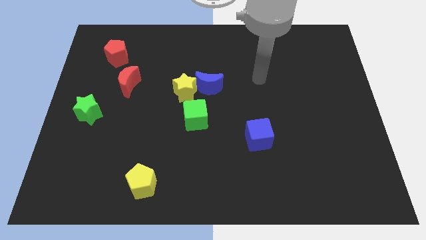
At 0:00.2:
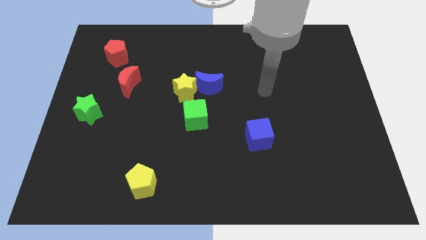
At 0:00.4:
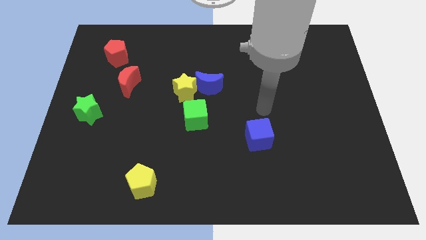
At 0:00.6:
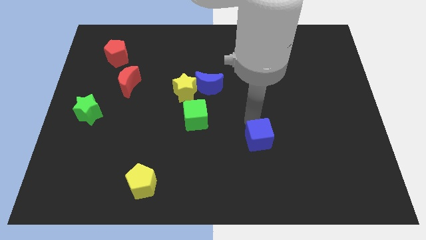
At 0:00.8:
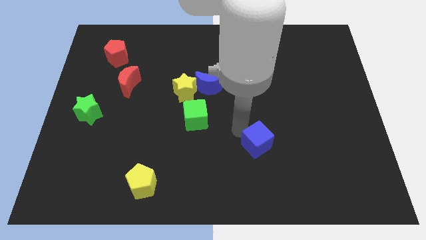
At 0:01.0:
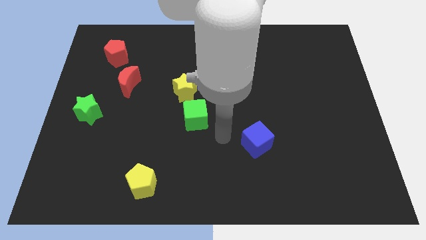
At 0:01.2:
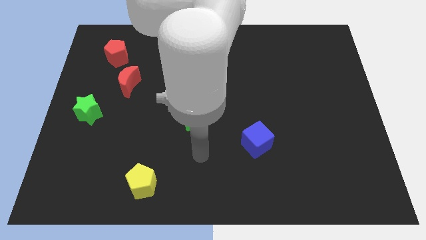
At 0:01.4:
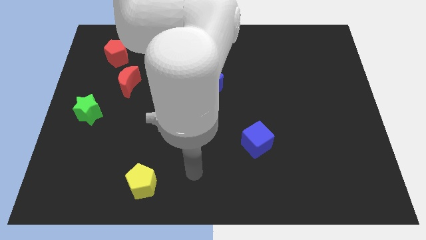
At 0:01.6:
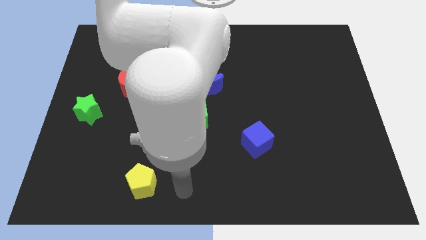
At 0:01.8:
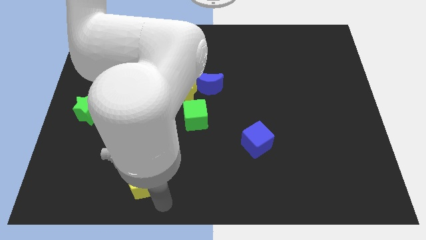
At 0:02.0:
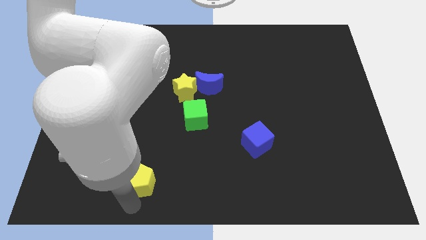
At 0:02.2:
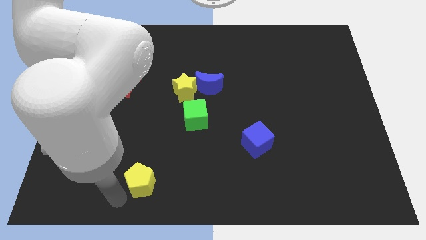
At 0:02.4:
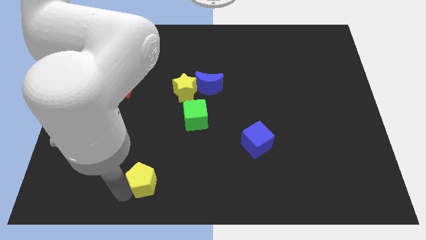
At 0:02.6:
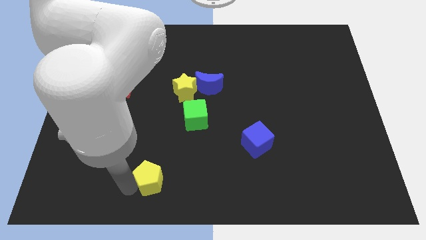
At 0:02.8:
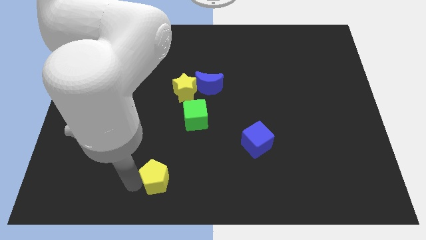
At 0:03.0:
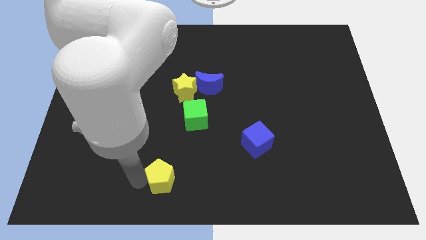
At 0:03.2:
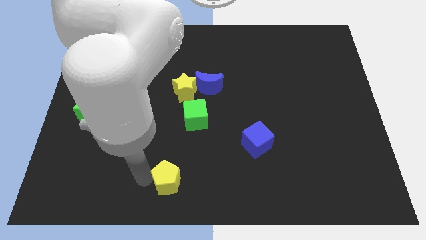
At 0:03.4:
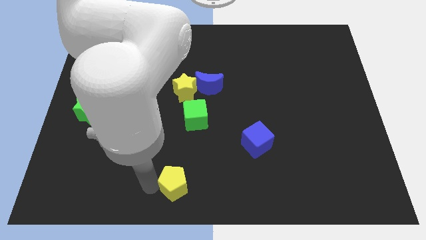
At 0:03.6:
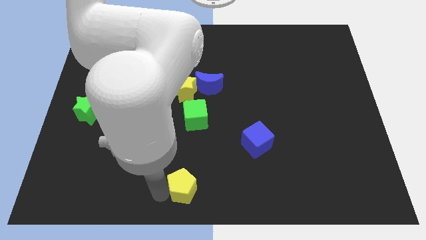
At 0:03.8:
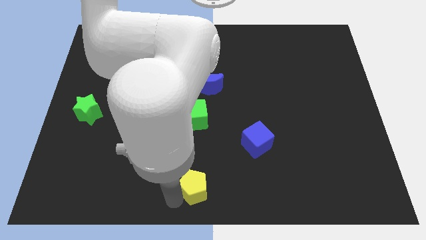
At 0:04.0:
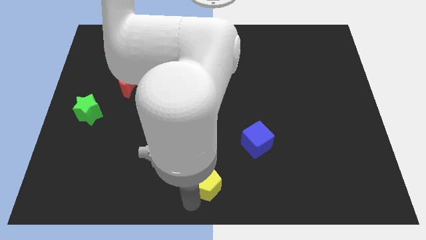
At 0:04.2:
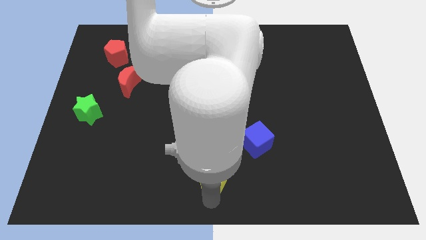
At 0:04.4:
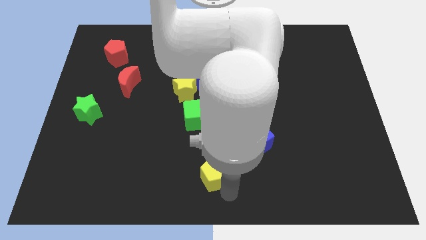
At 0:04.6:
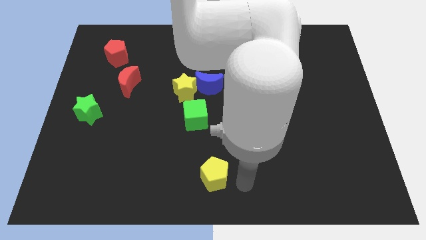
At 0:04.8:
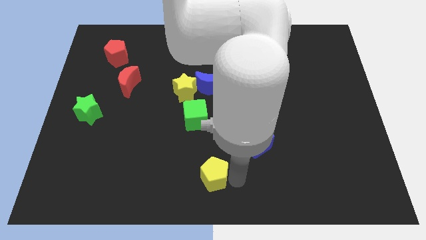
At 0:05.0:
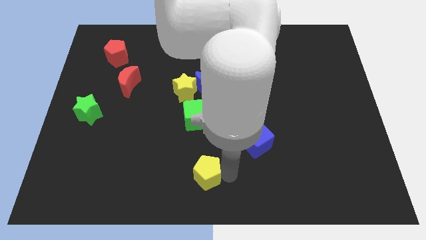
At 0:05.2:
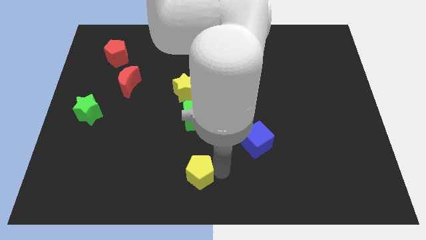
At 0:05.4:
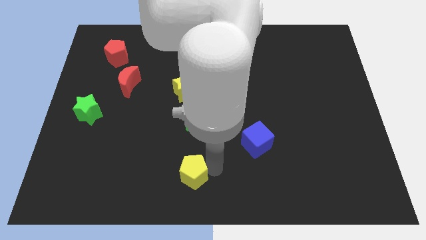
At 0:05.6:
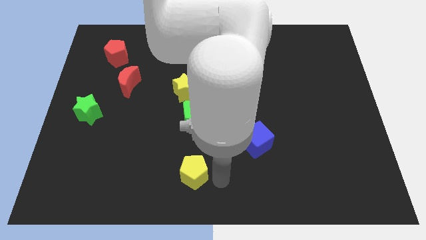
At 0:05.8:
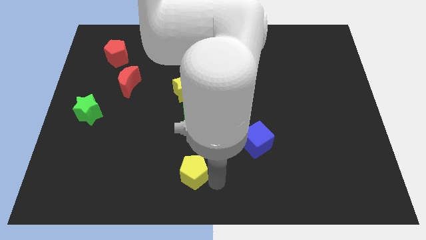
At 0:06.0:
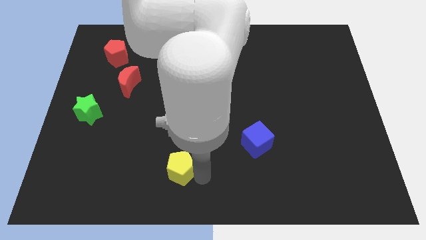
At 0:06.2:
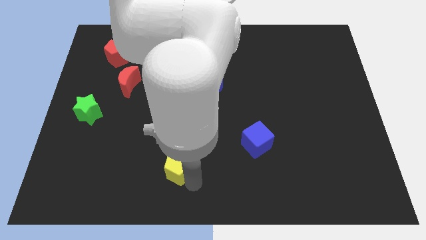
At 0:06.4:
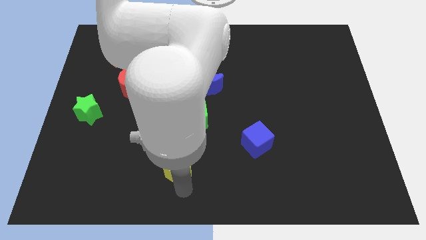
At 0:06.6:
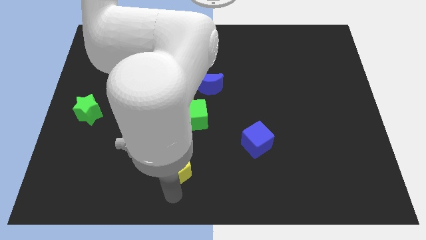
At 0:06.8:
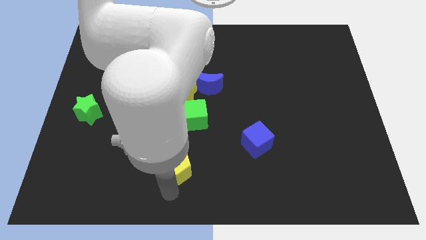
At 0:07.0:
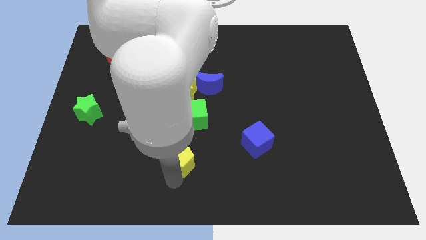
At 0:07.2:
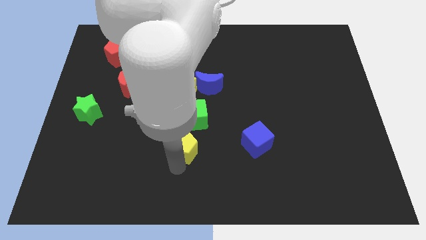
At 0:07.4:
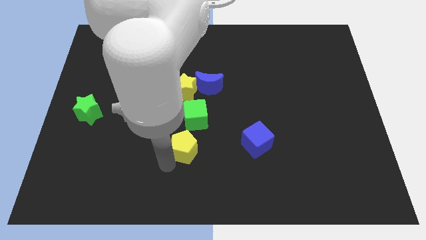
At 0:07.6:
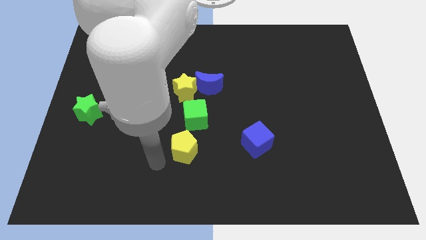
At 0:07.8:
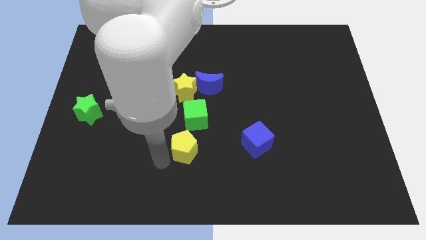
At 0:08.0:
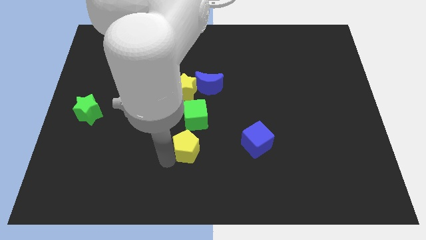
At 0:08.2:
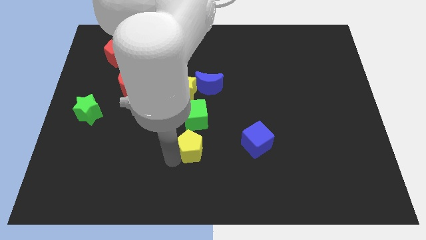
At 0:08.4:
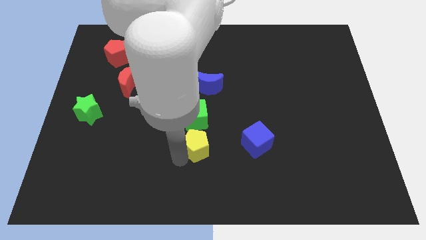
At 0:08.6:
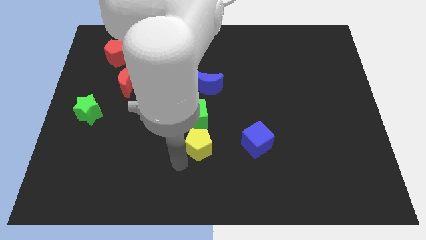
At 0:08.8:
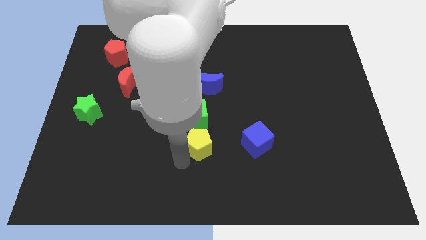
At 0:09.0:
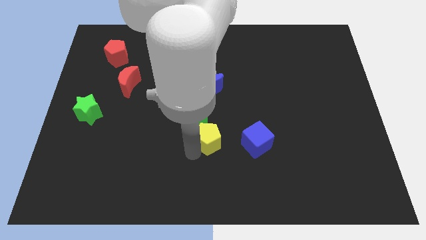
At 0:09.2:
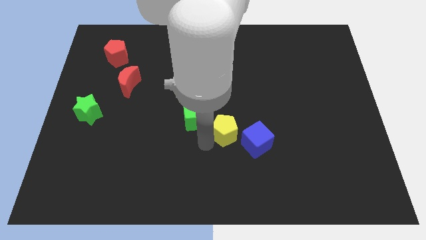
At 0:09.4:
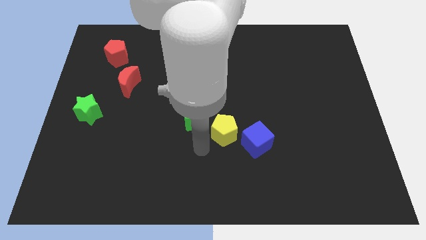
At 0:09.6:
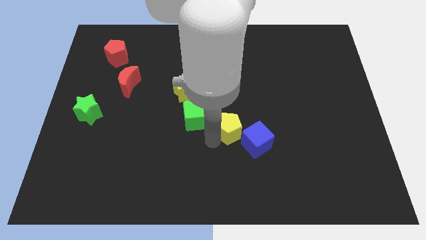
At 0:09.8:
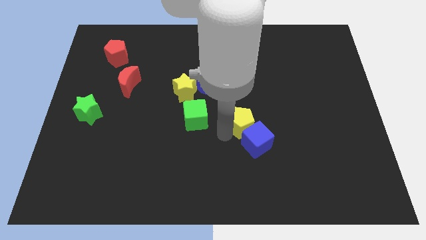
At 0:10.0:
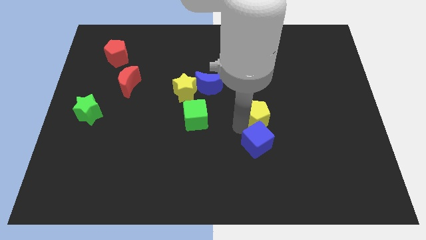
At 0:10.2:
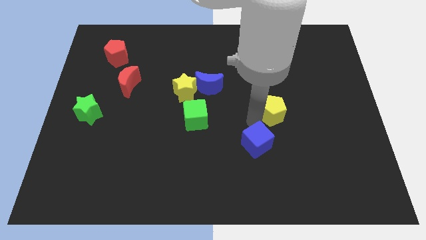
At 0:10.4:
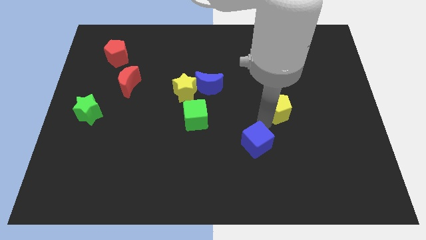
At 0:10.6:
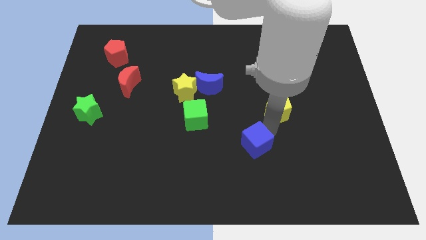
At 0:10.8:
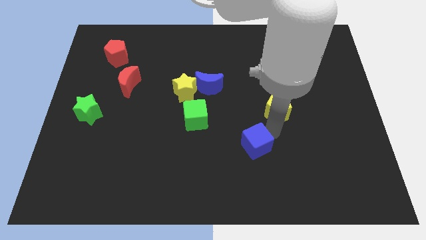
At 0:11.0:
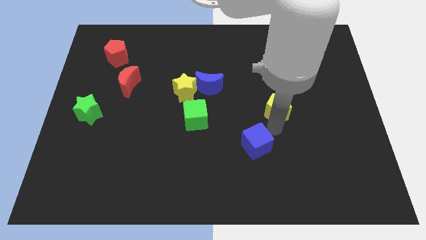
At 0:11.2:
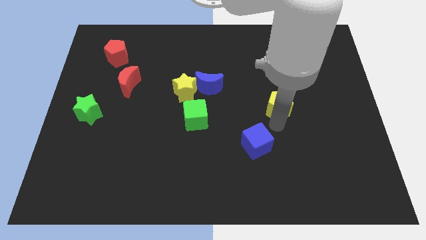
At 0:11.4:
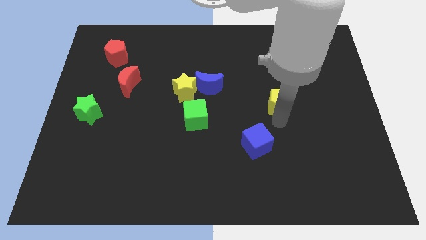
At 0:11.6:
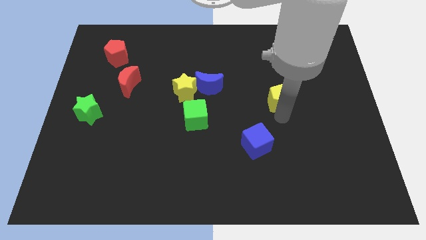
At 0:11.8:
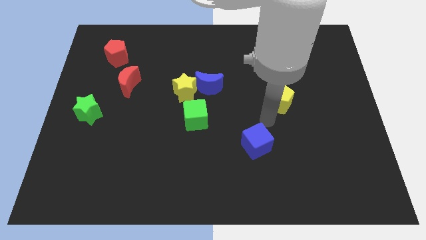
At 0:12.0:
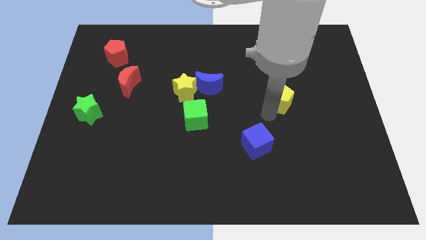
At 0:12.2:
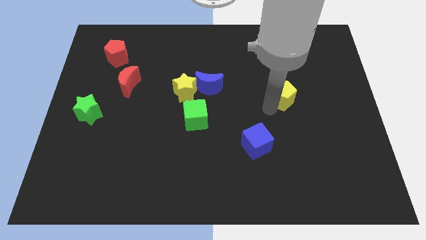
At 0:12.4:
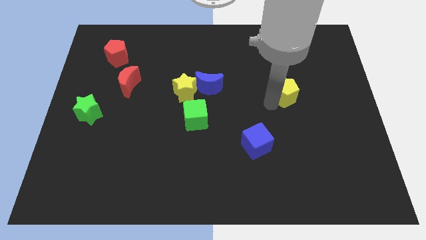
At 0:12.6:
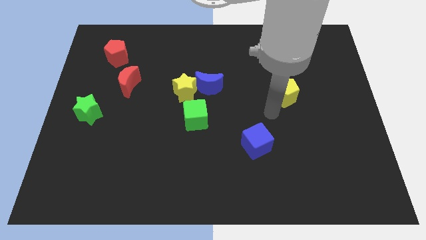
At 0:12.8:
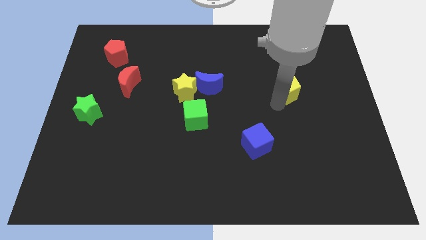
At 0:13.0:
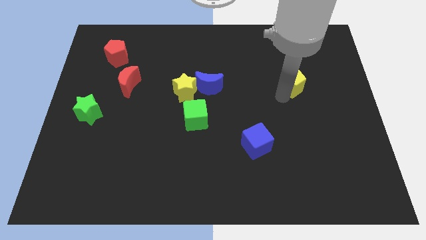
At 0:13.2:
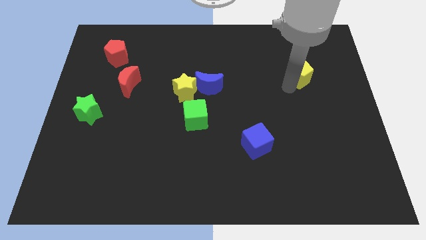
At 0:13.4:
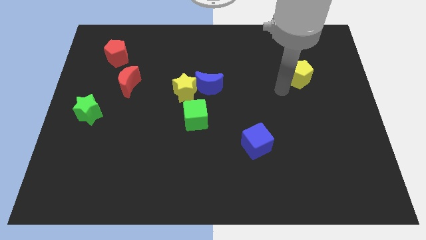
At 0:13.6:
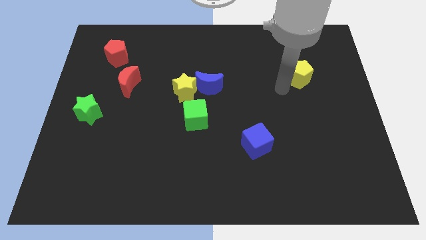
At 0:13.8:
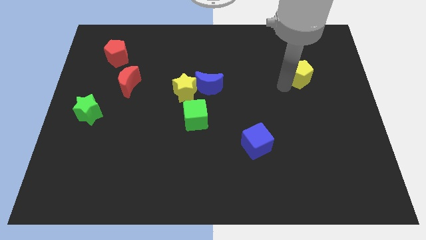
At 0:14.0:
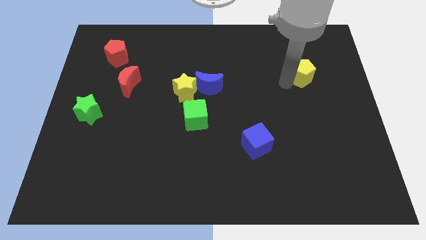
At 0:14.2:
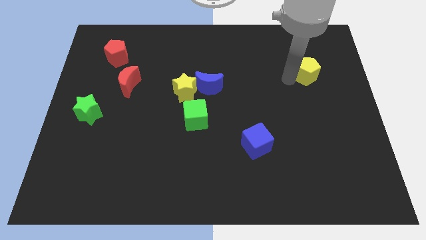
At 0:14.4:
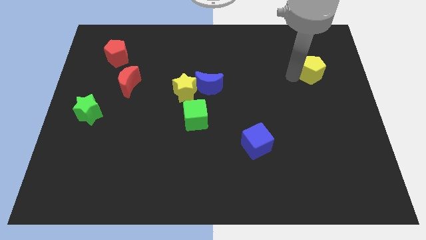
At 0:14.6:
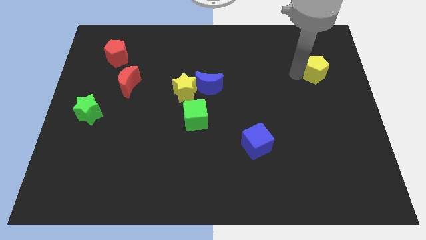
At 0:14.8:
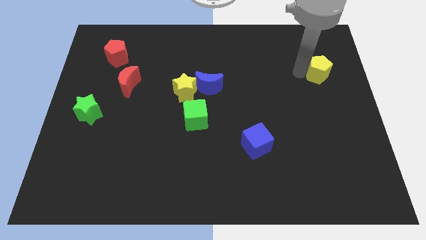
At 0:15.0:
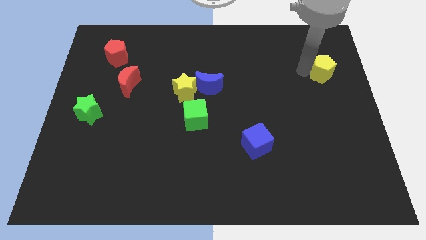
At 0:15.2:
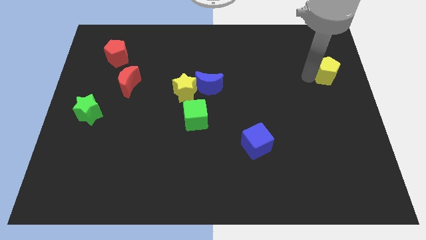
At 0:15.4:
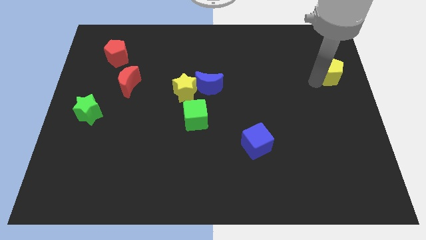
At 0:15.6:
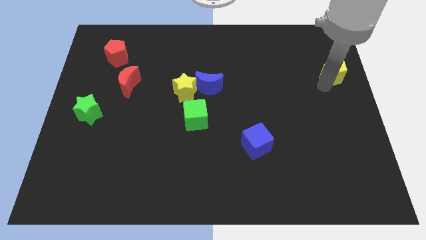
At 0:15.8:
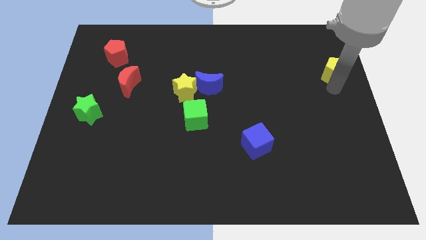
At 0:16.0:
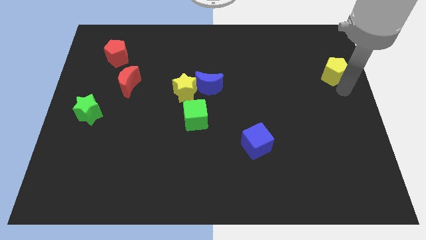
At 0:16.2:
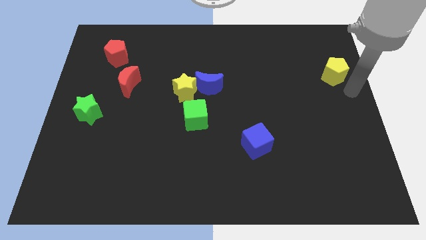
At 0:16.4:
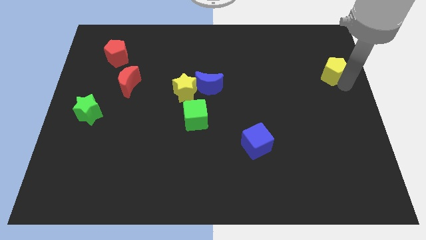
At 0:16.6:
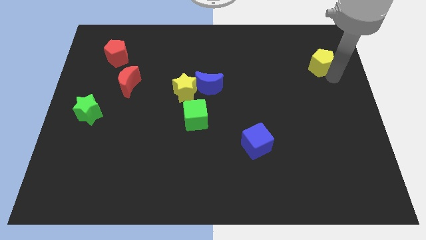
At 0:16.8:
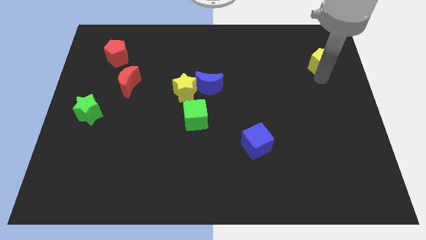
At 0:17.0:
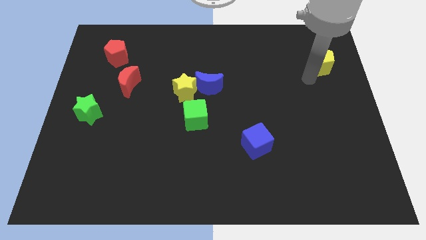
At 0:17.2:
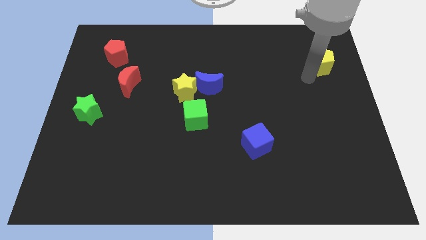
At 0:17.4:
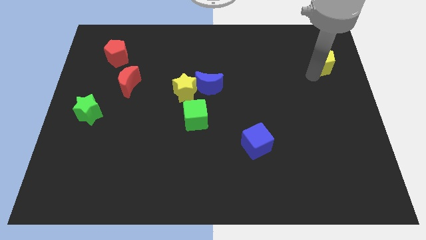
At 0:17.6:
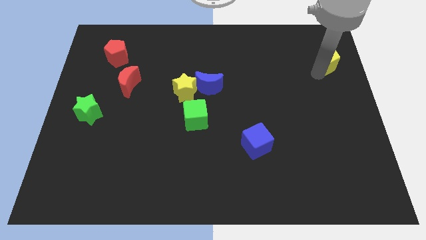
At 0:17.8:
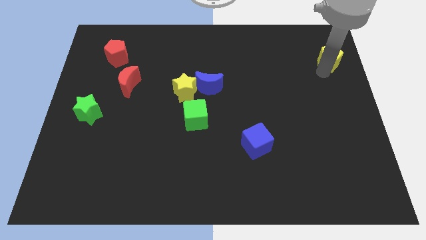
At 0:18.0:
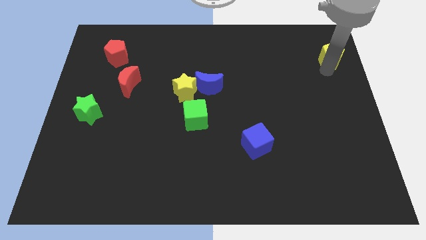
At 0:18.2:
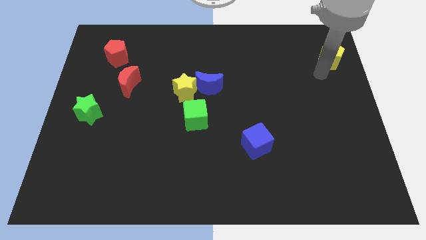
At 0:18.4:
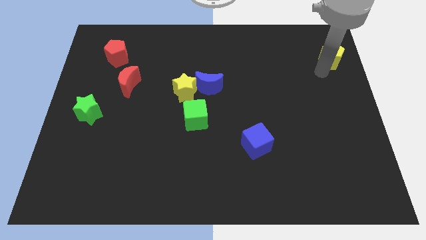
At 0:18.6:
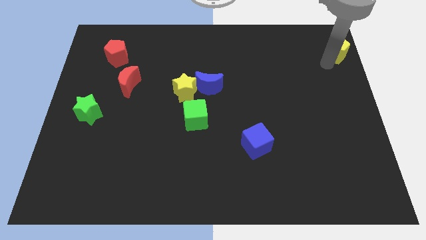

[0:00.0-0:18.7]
slide the yellow pentagon to the top right
